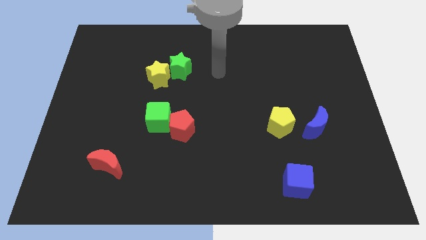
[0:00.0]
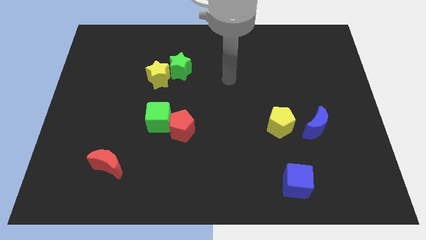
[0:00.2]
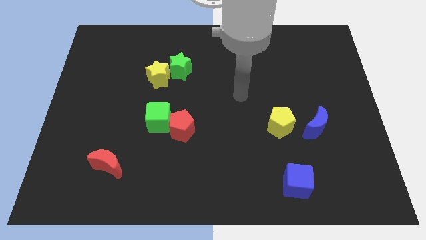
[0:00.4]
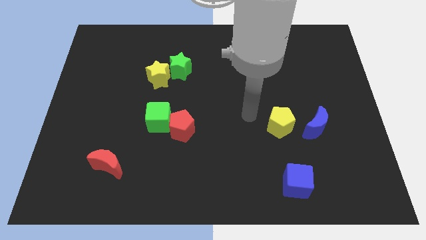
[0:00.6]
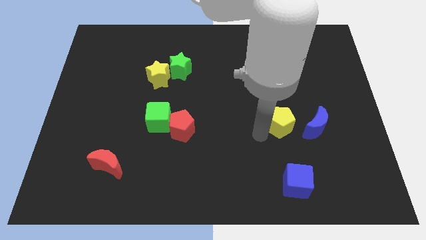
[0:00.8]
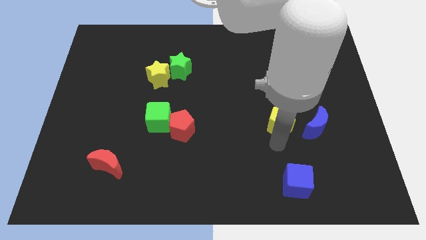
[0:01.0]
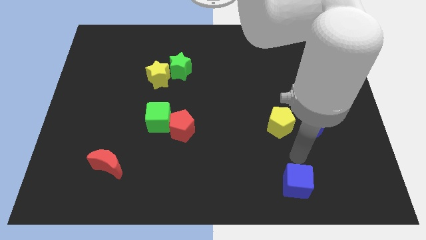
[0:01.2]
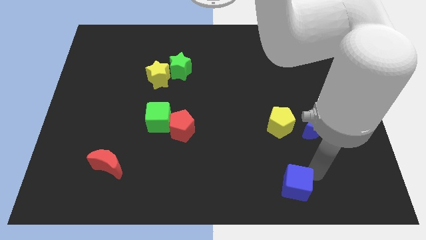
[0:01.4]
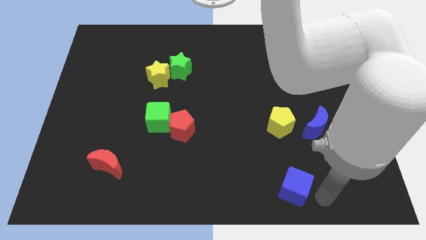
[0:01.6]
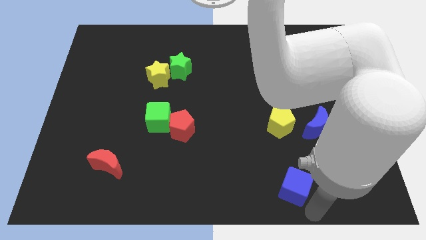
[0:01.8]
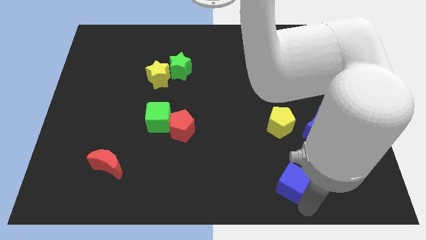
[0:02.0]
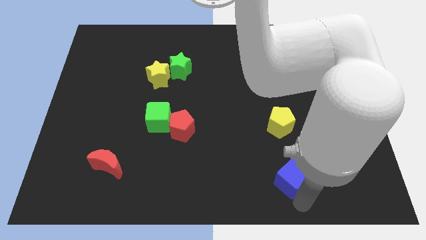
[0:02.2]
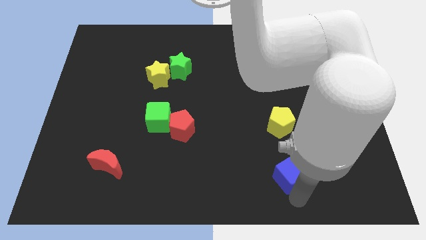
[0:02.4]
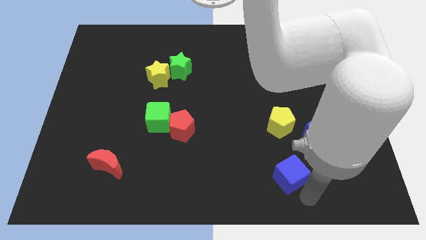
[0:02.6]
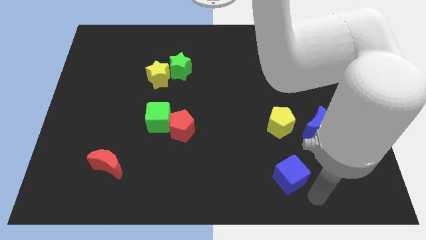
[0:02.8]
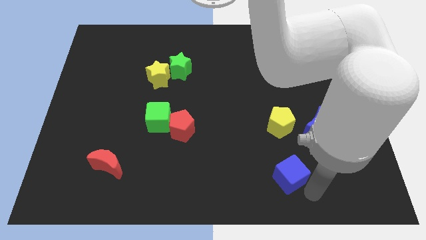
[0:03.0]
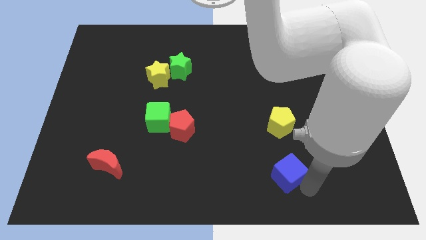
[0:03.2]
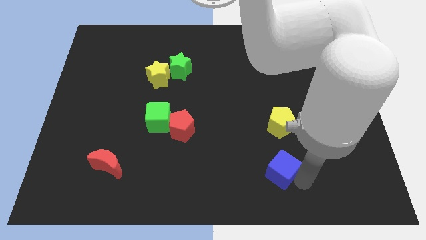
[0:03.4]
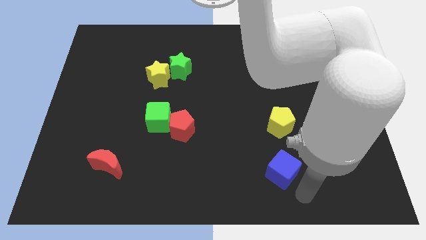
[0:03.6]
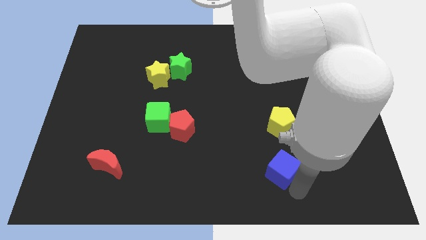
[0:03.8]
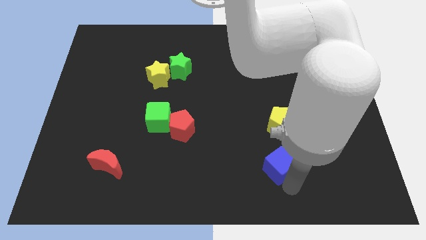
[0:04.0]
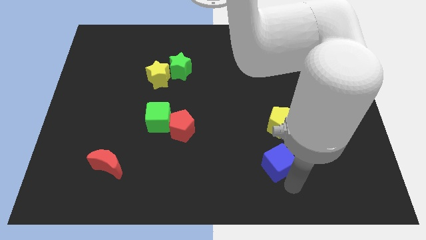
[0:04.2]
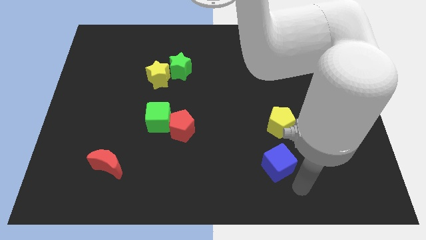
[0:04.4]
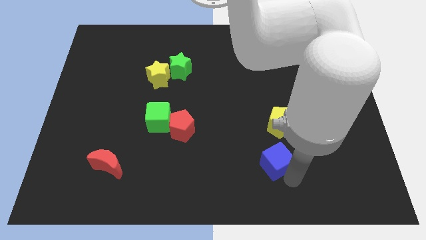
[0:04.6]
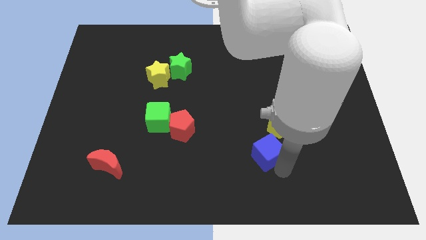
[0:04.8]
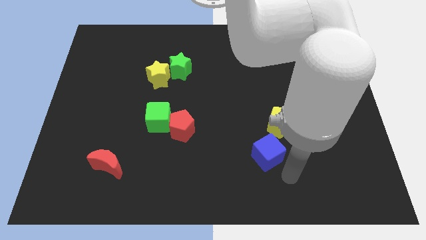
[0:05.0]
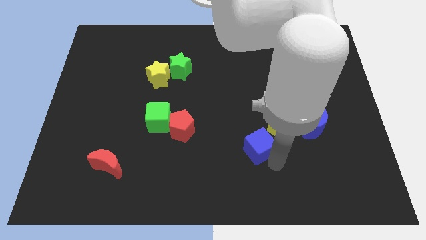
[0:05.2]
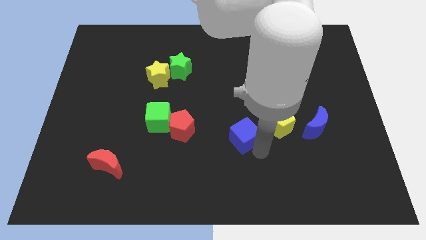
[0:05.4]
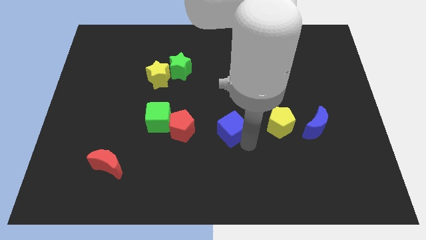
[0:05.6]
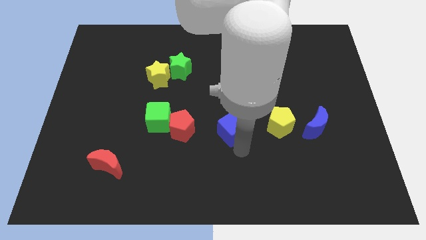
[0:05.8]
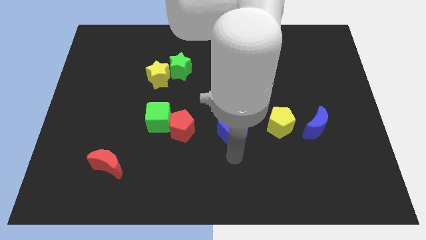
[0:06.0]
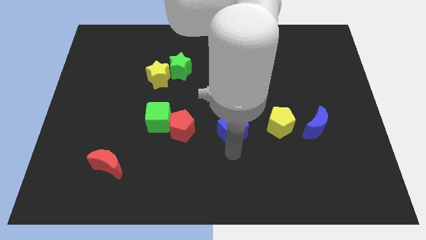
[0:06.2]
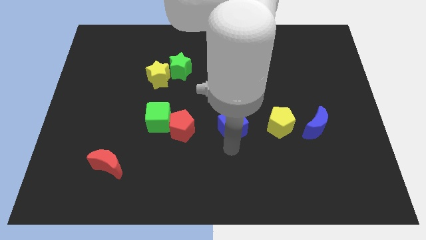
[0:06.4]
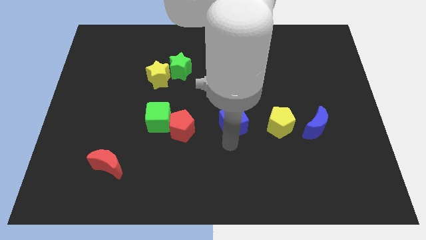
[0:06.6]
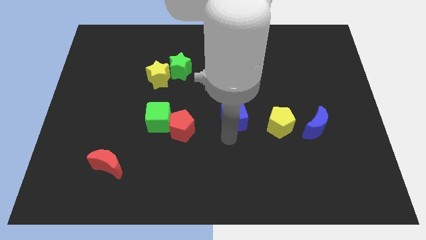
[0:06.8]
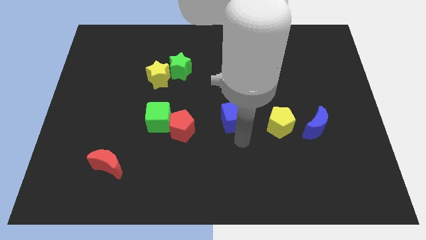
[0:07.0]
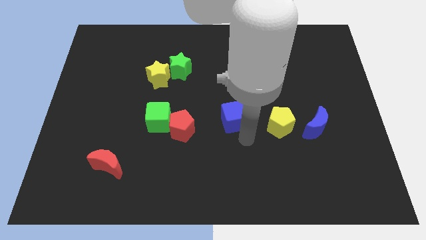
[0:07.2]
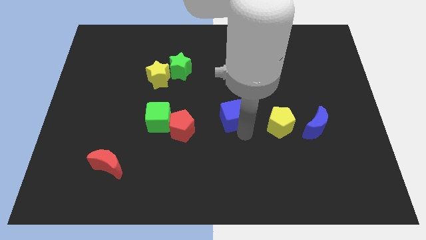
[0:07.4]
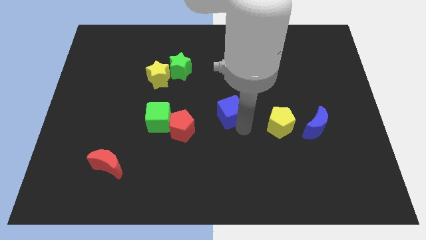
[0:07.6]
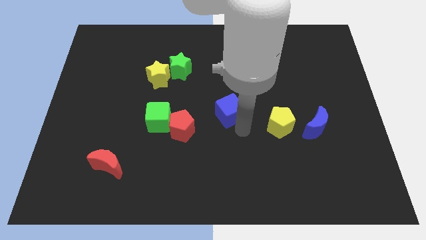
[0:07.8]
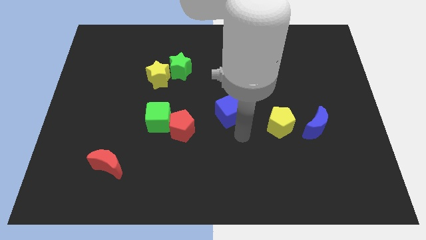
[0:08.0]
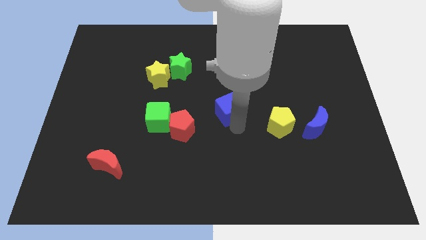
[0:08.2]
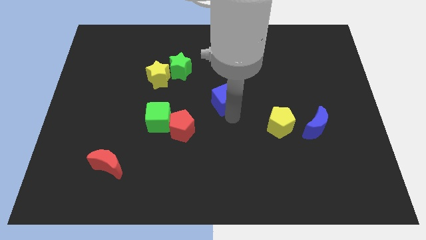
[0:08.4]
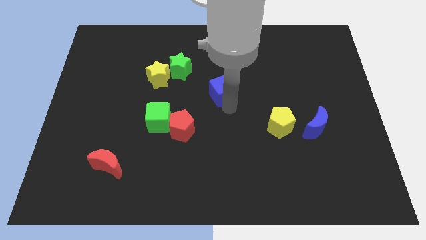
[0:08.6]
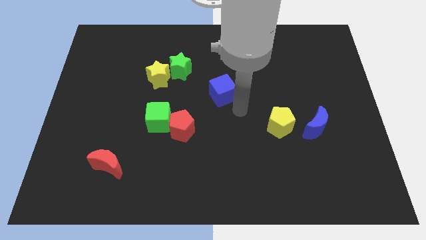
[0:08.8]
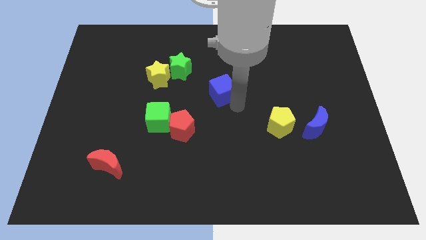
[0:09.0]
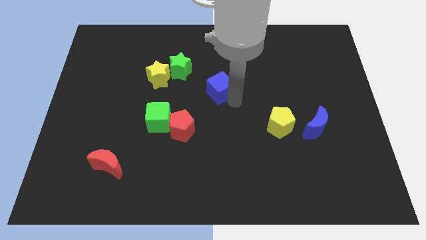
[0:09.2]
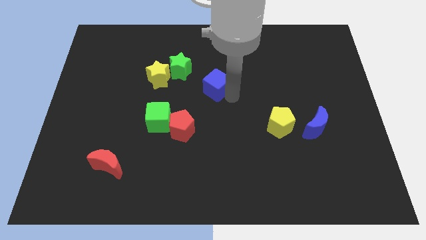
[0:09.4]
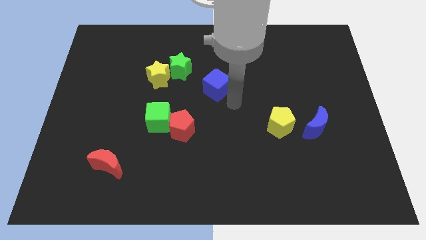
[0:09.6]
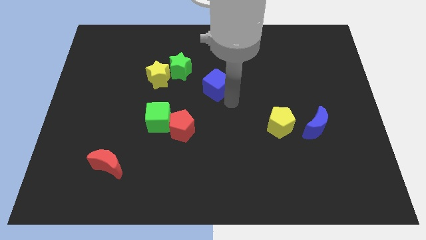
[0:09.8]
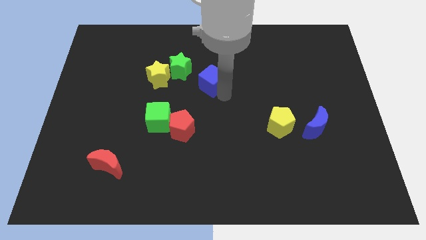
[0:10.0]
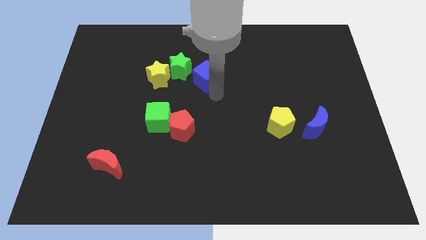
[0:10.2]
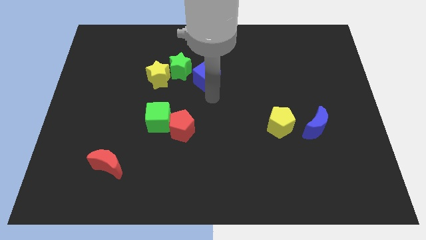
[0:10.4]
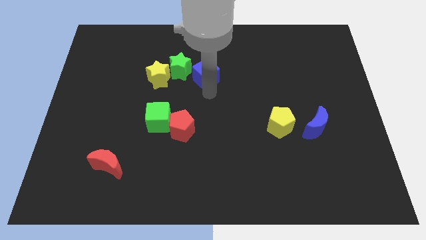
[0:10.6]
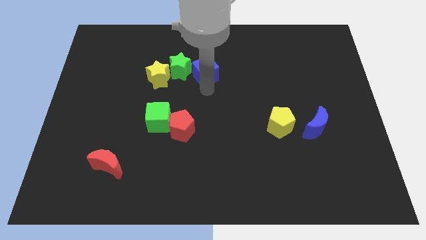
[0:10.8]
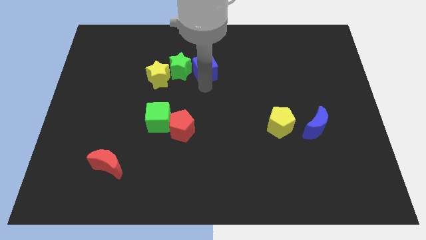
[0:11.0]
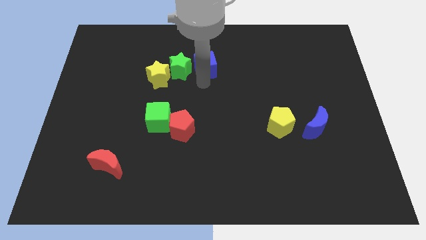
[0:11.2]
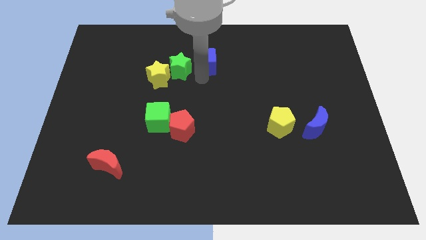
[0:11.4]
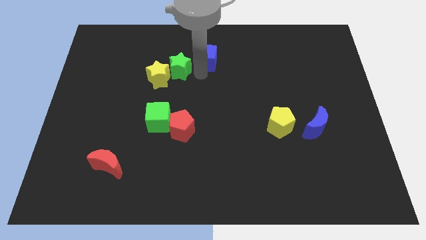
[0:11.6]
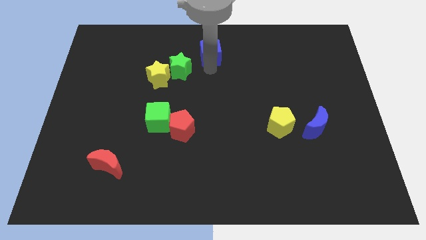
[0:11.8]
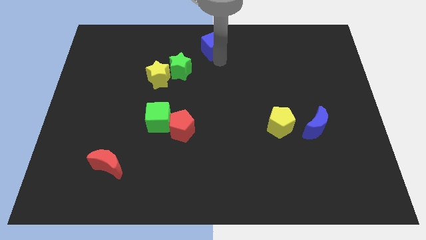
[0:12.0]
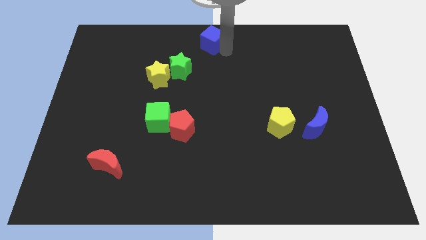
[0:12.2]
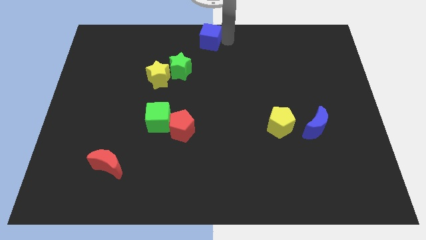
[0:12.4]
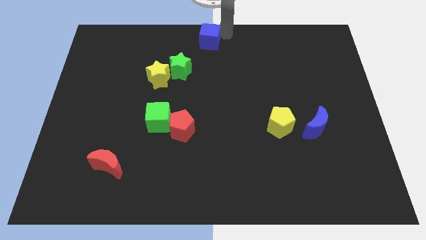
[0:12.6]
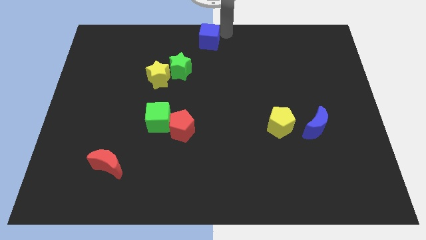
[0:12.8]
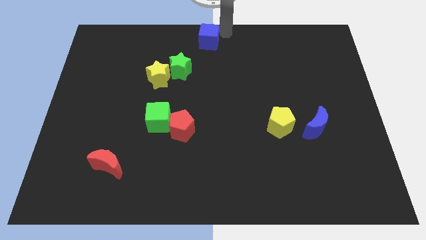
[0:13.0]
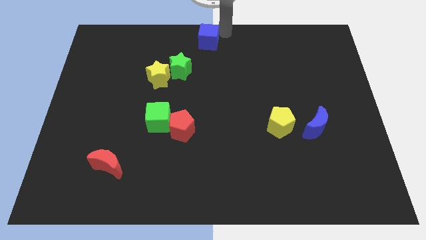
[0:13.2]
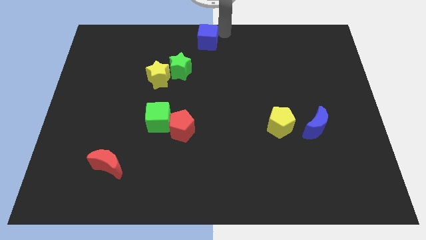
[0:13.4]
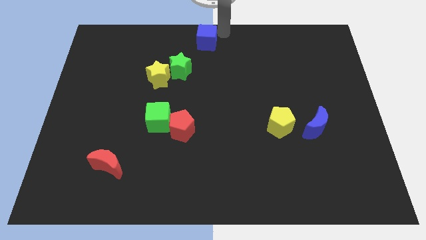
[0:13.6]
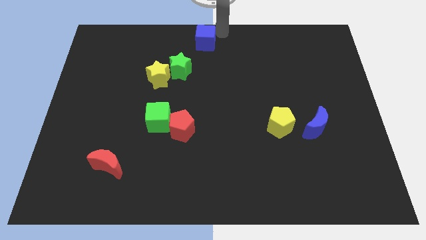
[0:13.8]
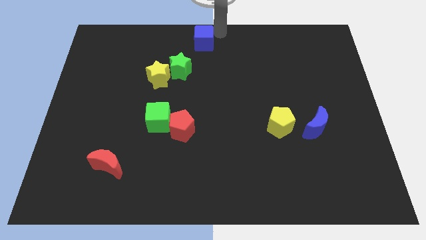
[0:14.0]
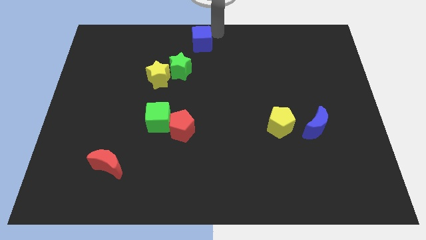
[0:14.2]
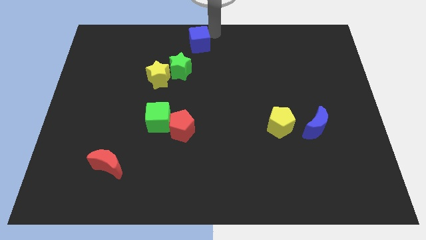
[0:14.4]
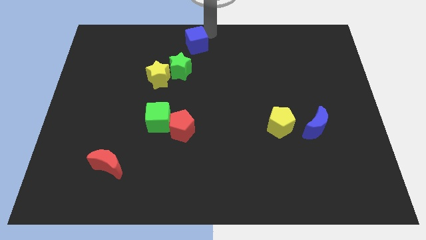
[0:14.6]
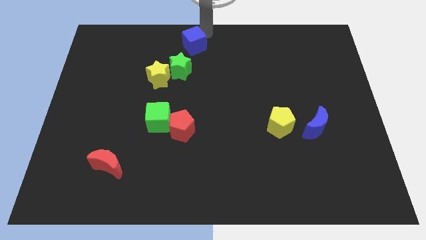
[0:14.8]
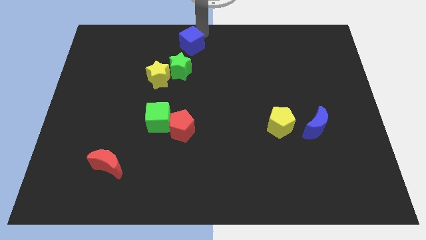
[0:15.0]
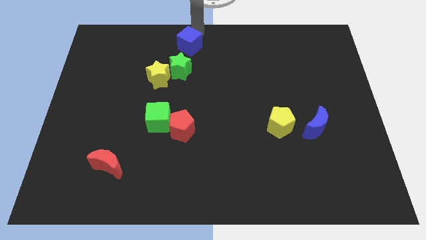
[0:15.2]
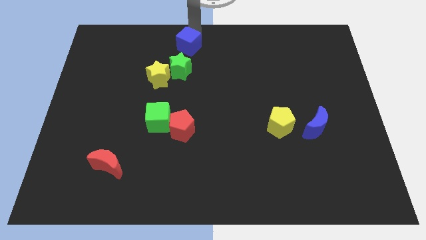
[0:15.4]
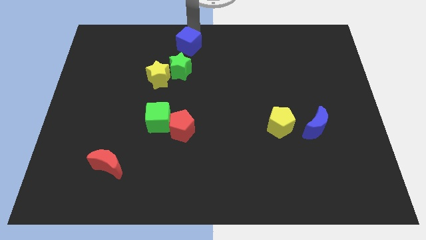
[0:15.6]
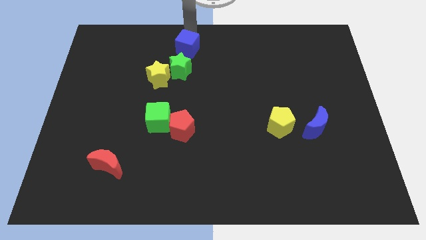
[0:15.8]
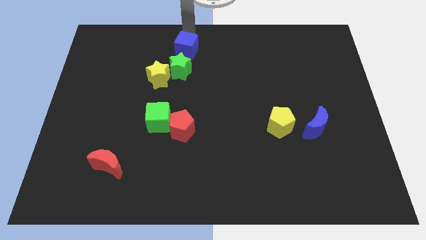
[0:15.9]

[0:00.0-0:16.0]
put the blue cube to the top right of the yellow star
